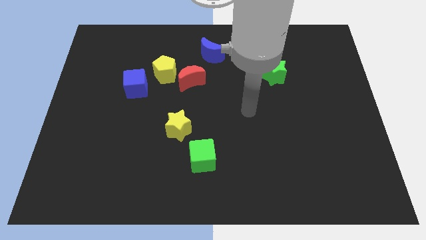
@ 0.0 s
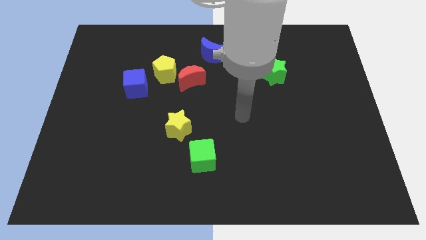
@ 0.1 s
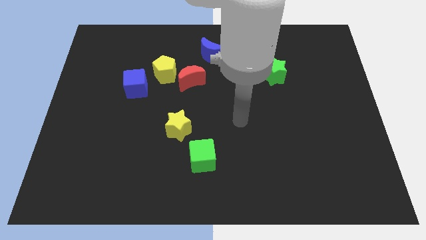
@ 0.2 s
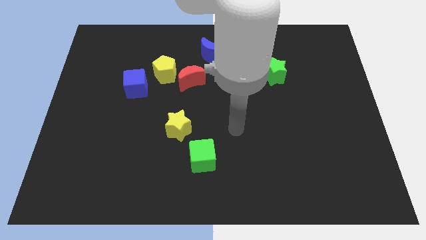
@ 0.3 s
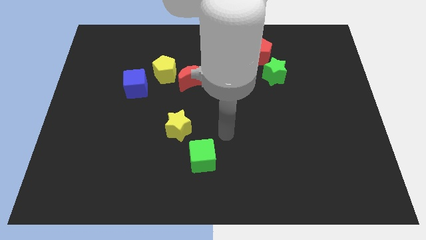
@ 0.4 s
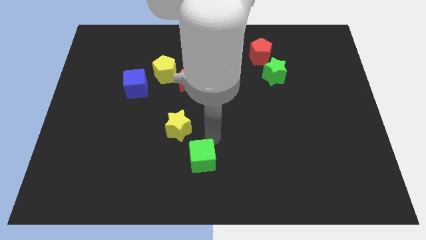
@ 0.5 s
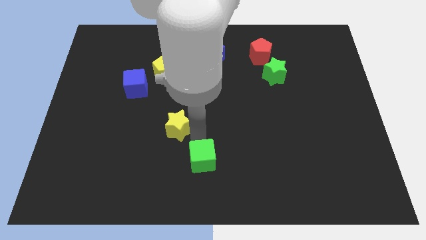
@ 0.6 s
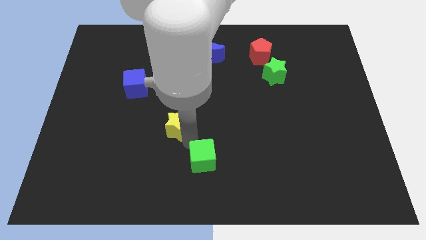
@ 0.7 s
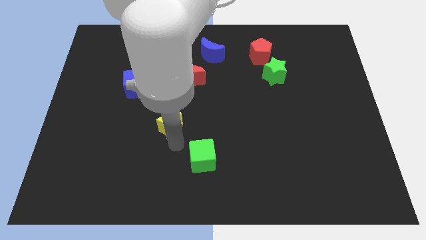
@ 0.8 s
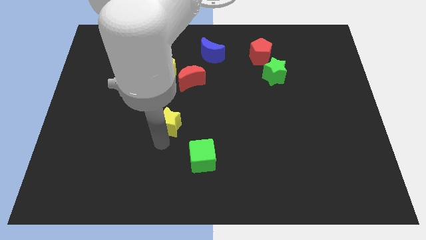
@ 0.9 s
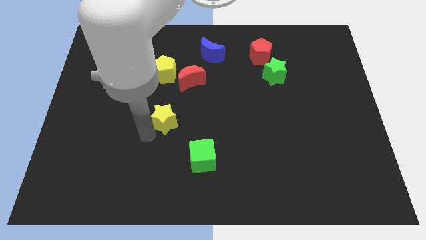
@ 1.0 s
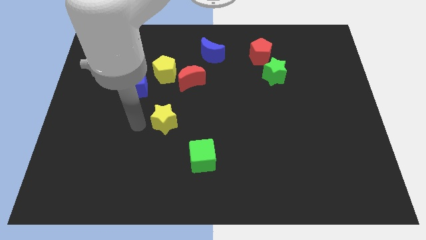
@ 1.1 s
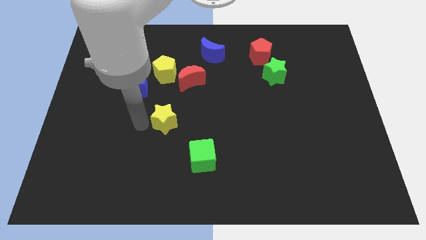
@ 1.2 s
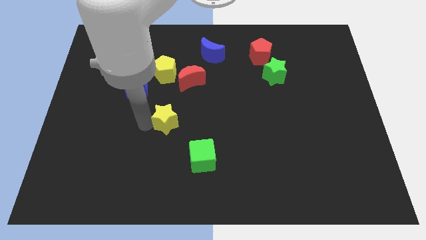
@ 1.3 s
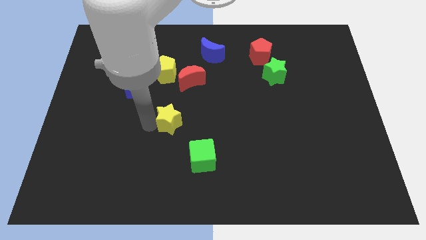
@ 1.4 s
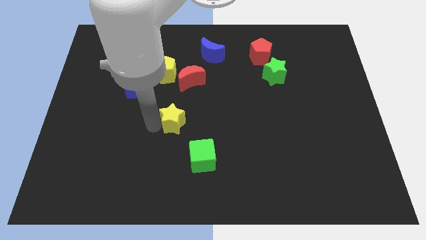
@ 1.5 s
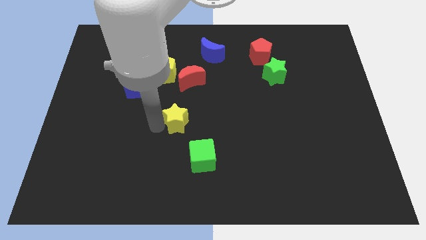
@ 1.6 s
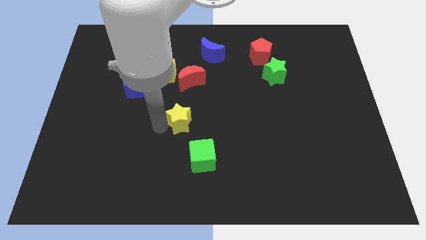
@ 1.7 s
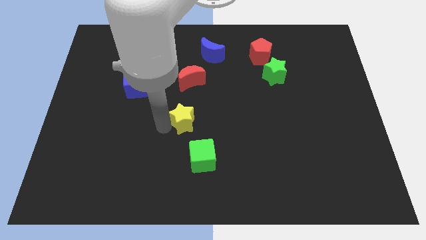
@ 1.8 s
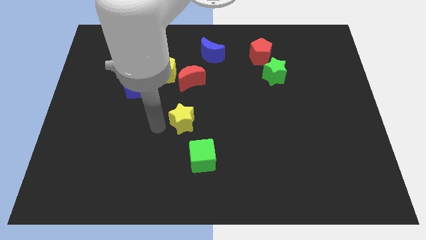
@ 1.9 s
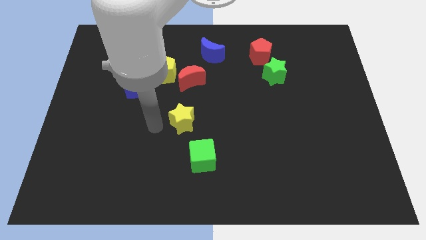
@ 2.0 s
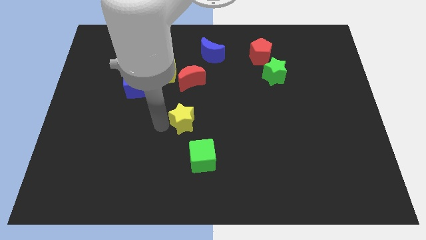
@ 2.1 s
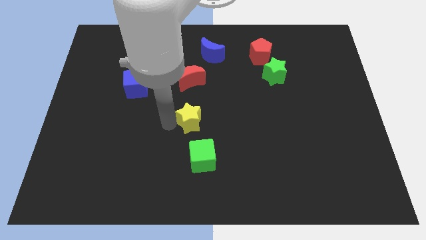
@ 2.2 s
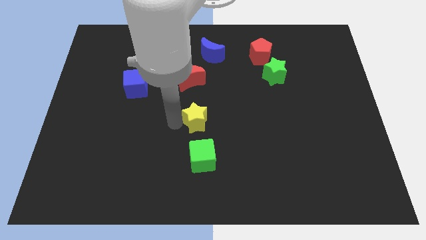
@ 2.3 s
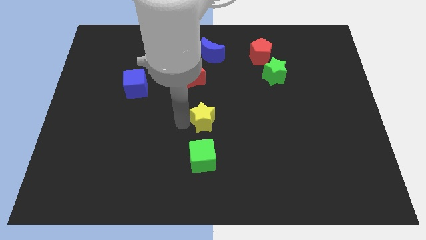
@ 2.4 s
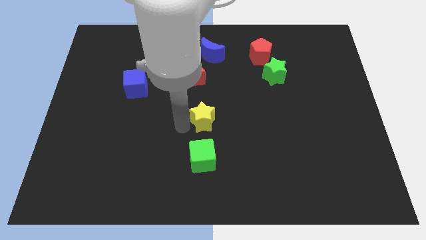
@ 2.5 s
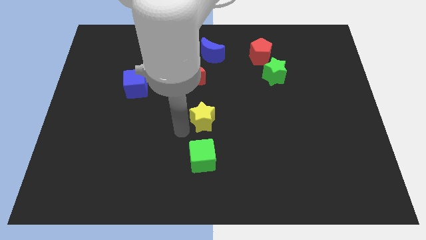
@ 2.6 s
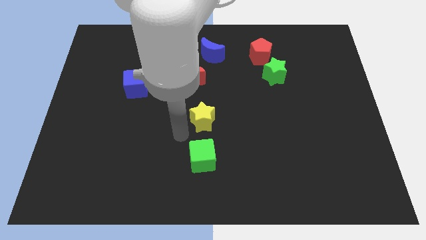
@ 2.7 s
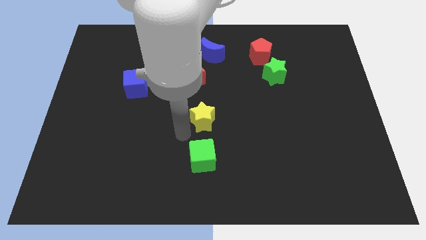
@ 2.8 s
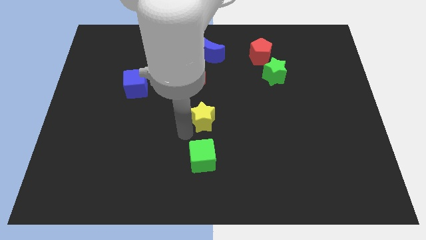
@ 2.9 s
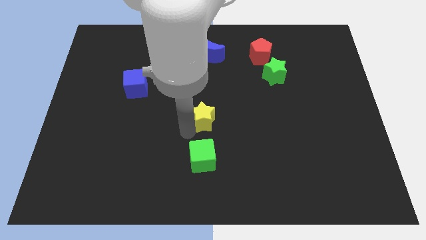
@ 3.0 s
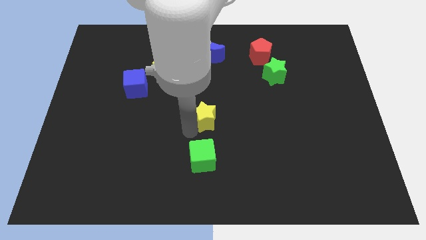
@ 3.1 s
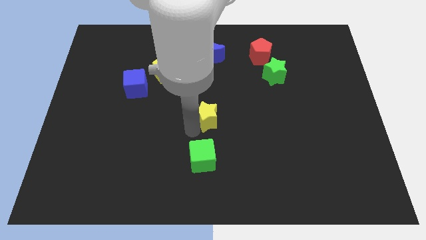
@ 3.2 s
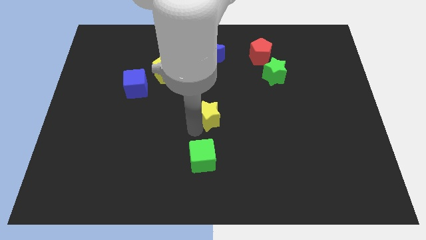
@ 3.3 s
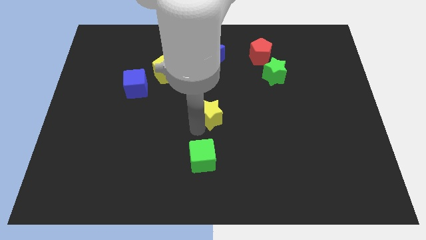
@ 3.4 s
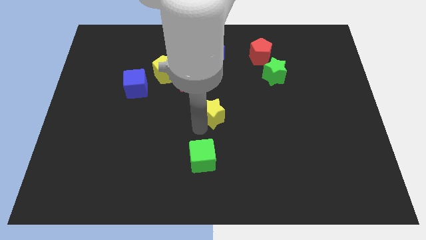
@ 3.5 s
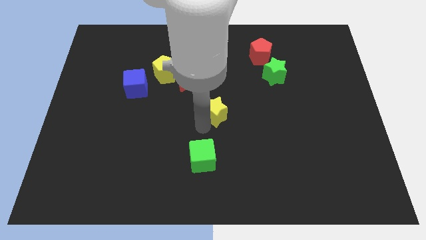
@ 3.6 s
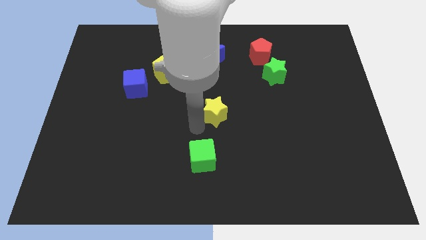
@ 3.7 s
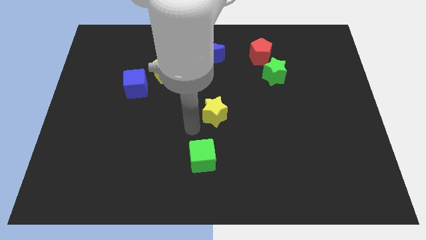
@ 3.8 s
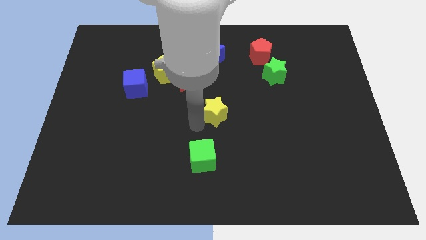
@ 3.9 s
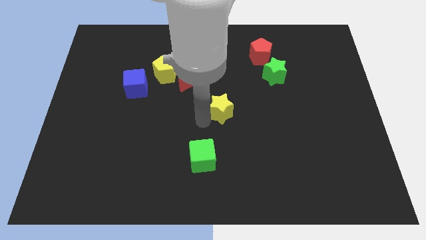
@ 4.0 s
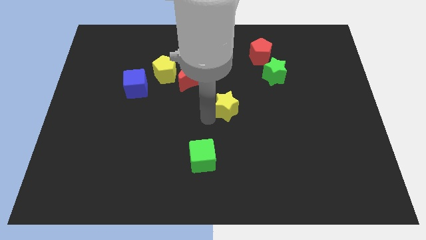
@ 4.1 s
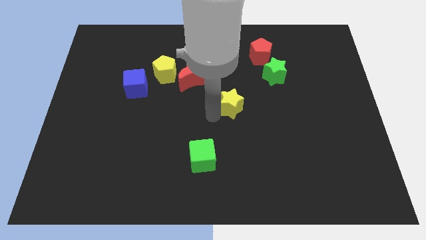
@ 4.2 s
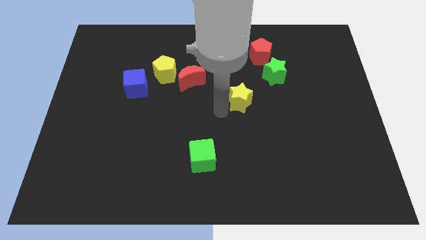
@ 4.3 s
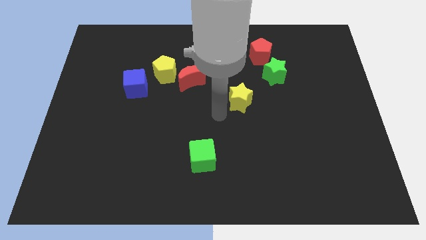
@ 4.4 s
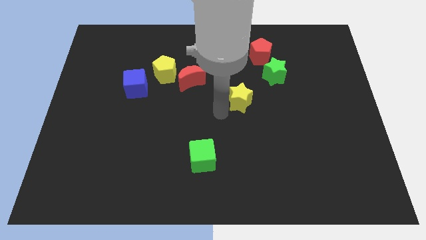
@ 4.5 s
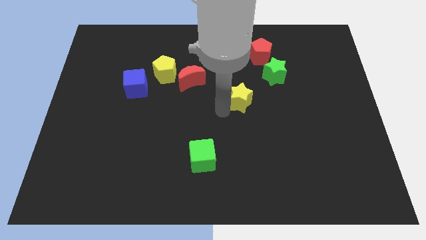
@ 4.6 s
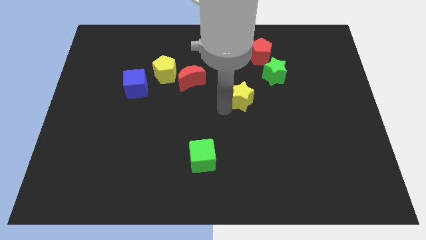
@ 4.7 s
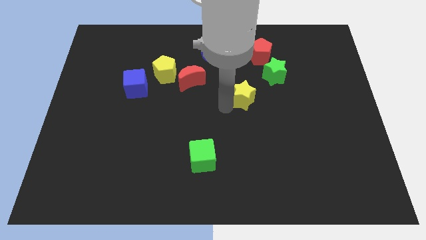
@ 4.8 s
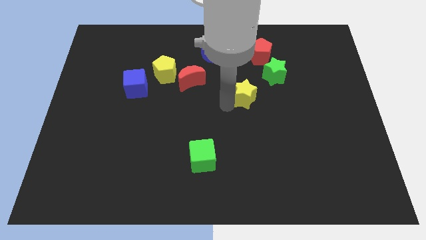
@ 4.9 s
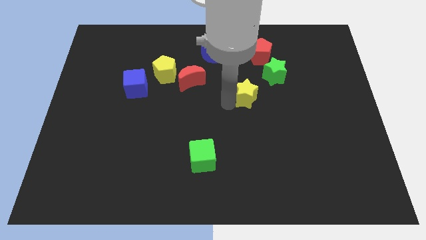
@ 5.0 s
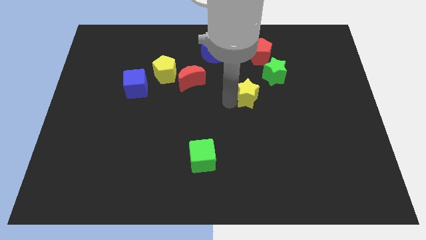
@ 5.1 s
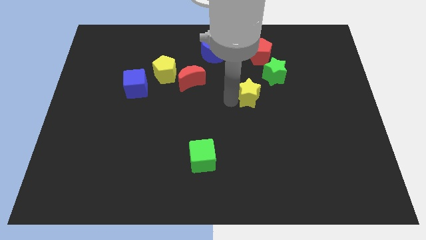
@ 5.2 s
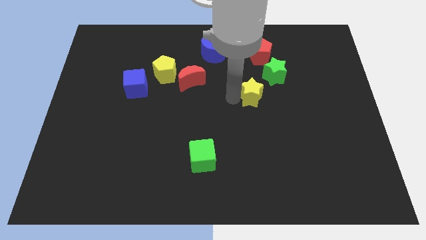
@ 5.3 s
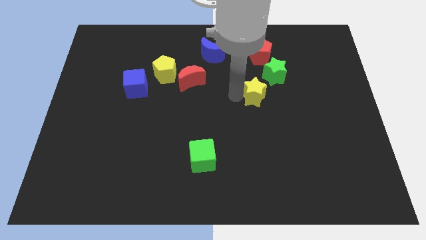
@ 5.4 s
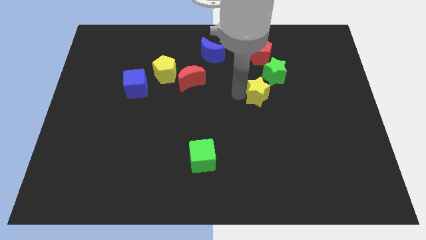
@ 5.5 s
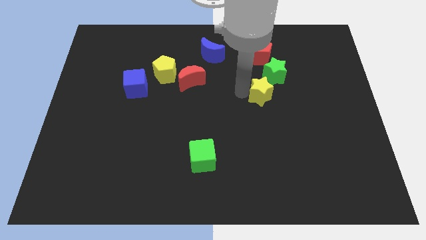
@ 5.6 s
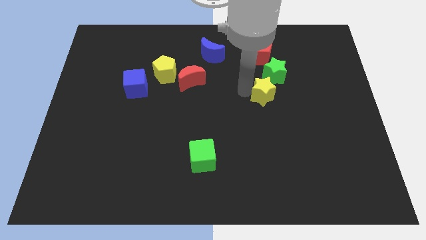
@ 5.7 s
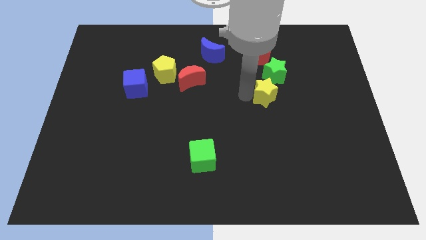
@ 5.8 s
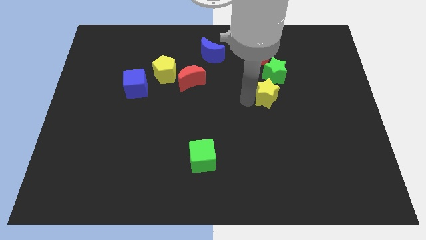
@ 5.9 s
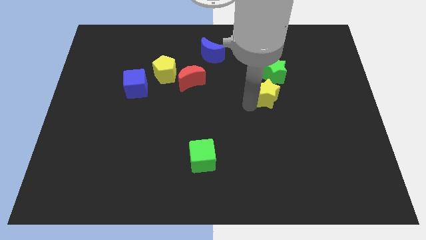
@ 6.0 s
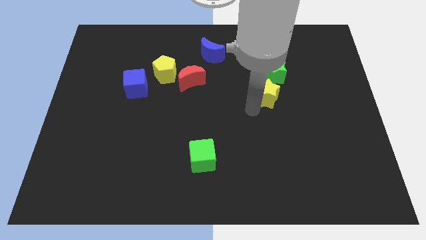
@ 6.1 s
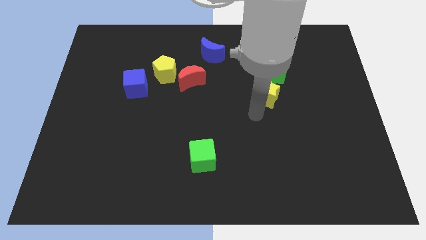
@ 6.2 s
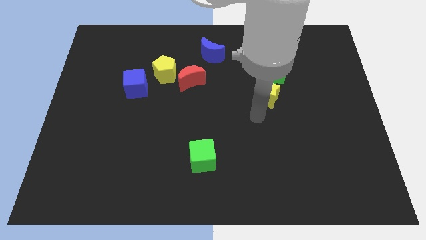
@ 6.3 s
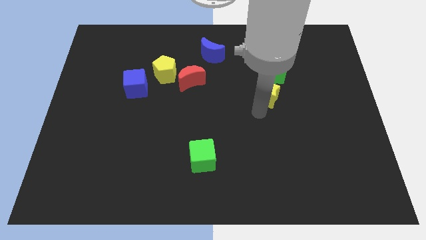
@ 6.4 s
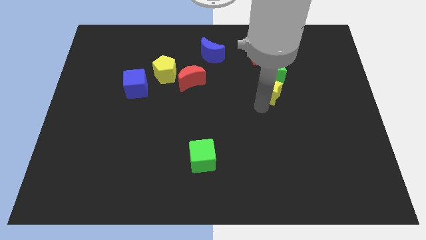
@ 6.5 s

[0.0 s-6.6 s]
push the yellow star towards the green star

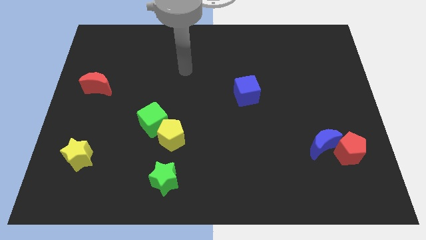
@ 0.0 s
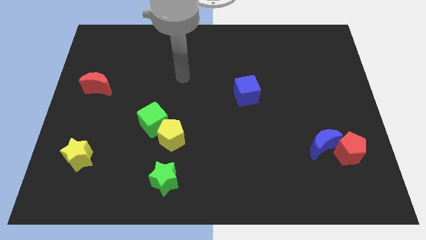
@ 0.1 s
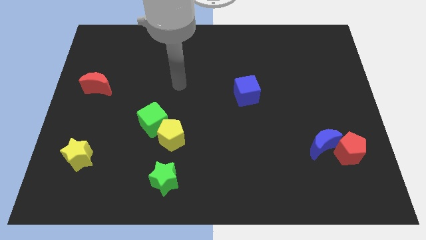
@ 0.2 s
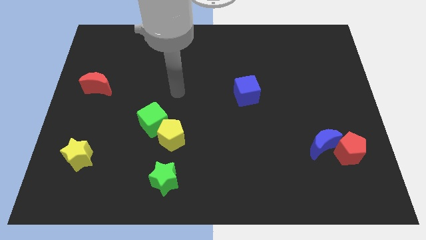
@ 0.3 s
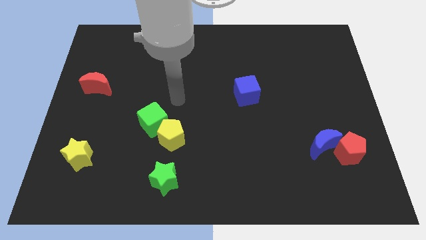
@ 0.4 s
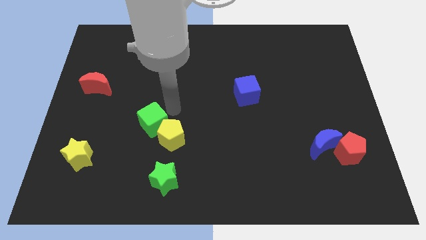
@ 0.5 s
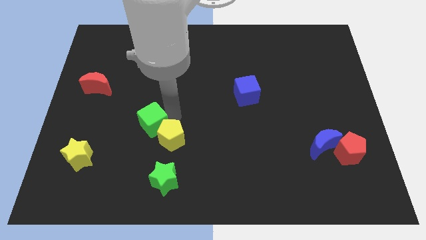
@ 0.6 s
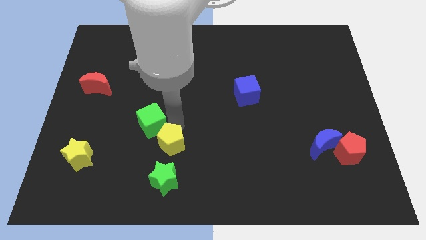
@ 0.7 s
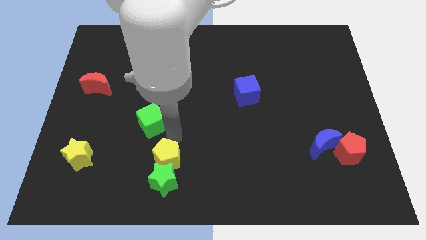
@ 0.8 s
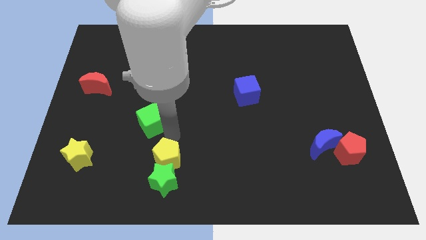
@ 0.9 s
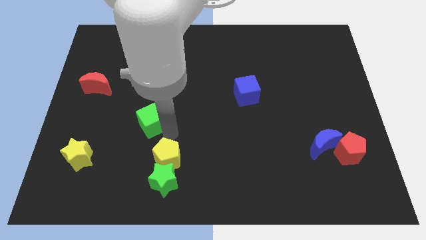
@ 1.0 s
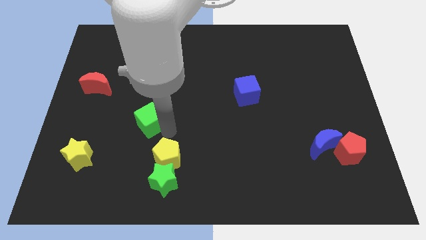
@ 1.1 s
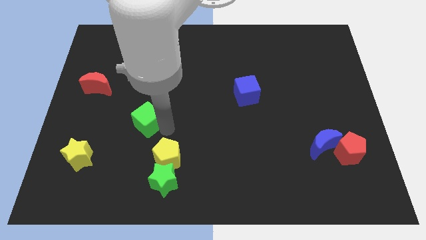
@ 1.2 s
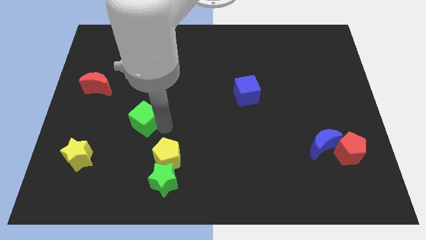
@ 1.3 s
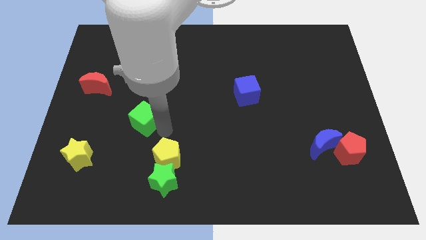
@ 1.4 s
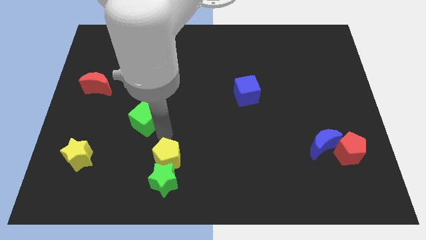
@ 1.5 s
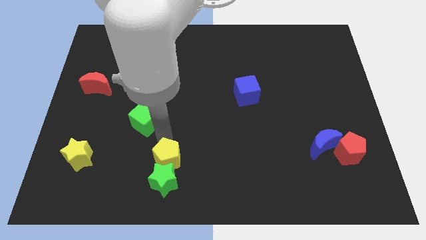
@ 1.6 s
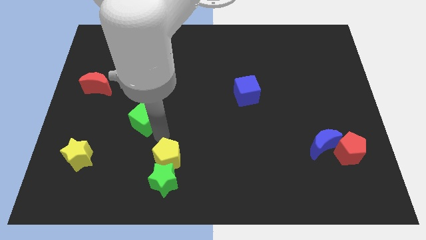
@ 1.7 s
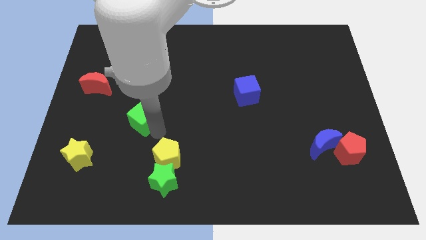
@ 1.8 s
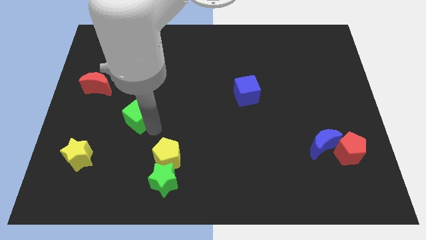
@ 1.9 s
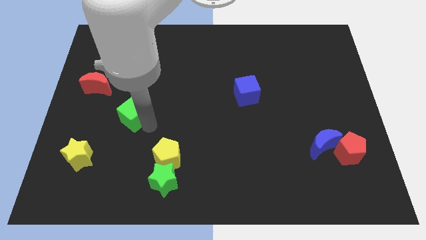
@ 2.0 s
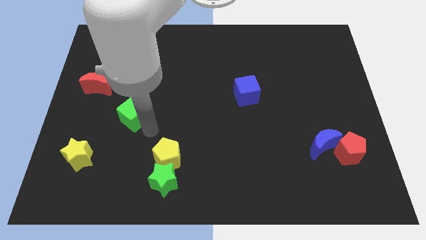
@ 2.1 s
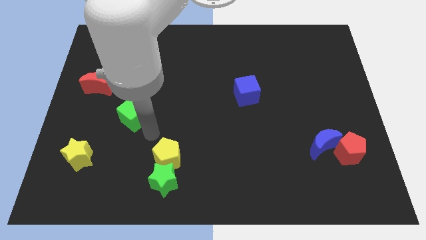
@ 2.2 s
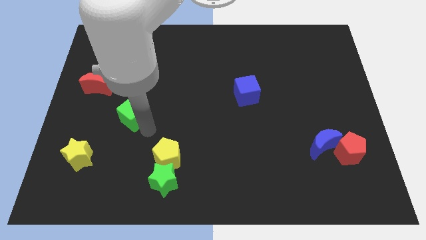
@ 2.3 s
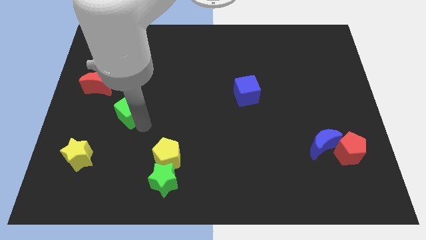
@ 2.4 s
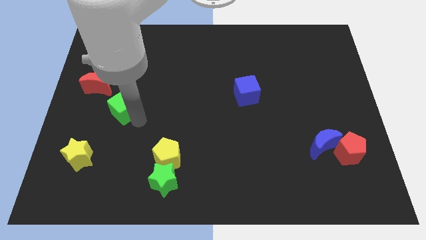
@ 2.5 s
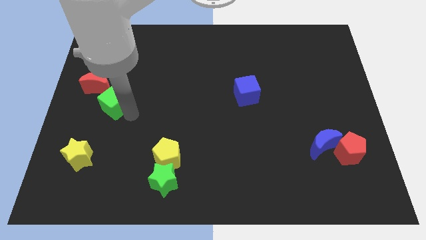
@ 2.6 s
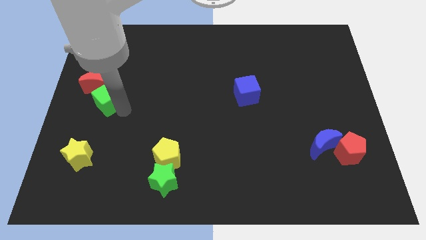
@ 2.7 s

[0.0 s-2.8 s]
move the green cube towards the red moon
